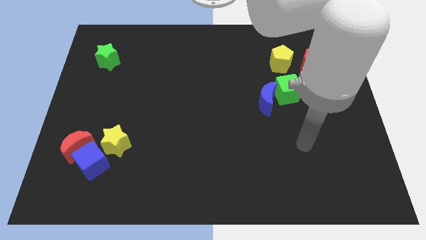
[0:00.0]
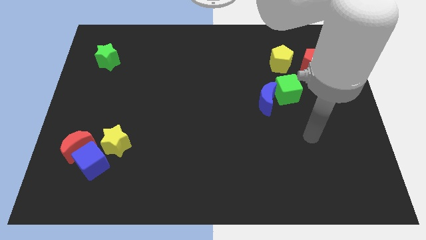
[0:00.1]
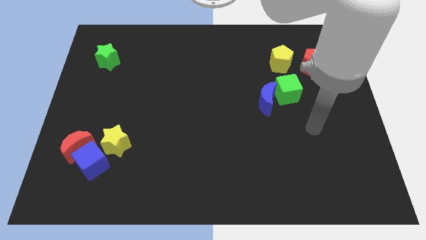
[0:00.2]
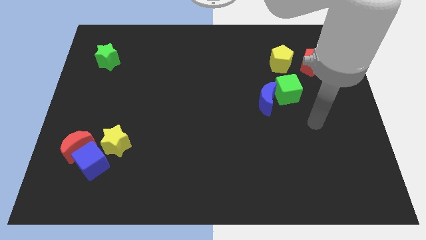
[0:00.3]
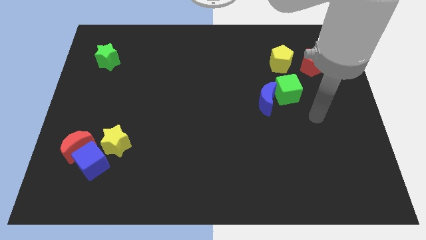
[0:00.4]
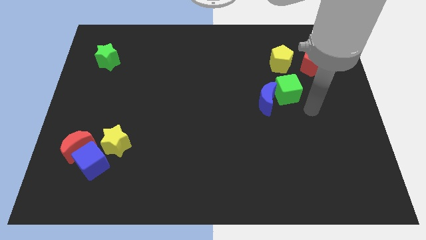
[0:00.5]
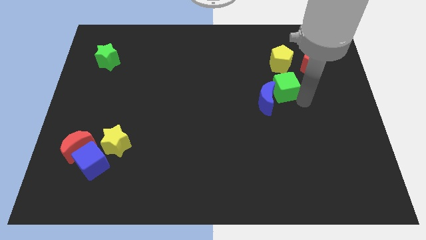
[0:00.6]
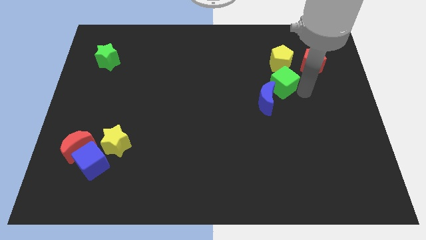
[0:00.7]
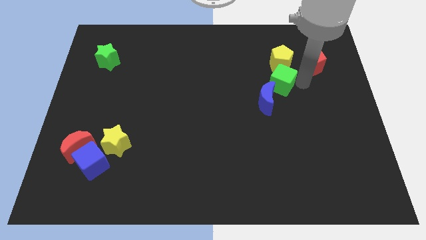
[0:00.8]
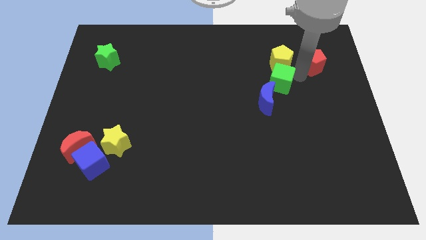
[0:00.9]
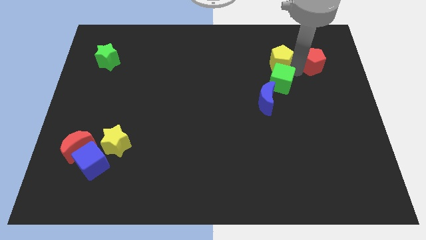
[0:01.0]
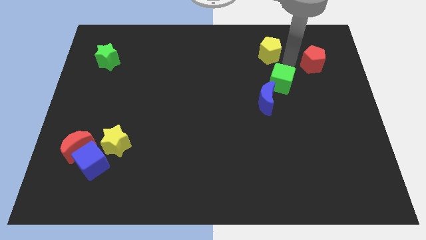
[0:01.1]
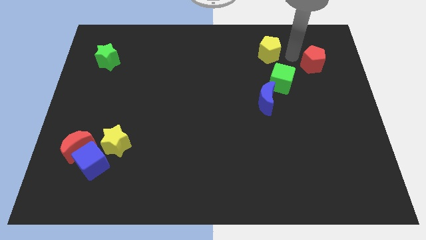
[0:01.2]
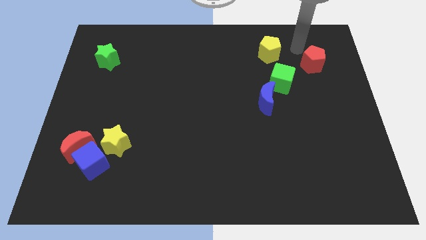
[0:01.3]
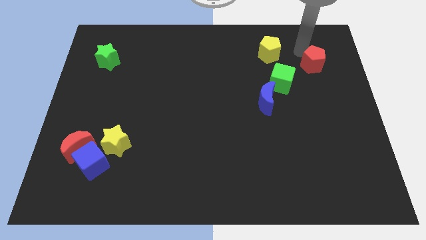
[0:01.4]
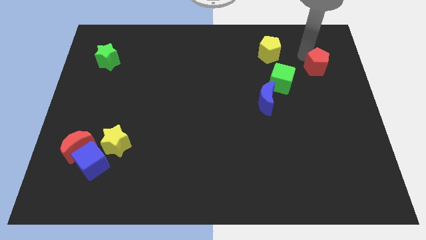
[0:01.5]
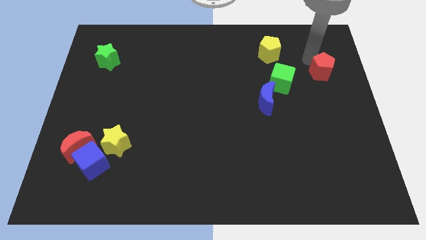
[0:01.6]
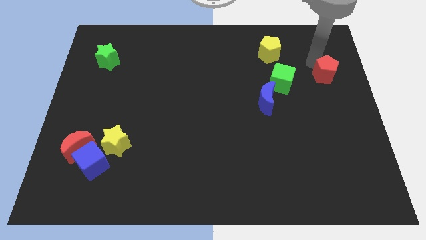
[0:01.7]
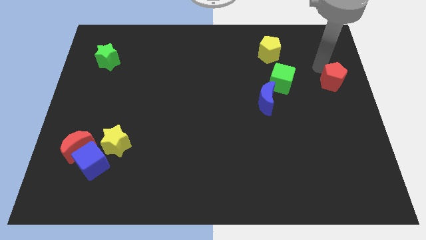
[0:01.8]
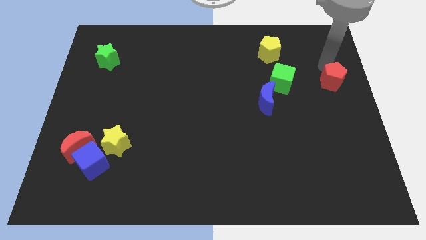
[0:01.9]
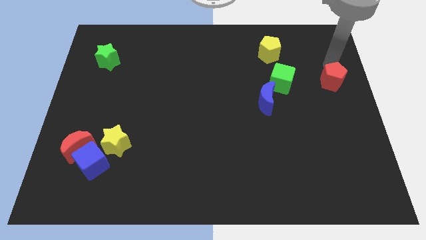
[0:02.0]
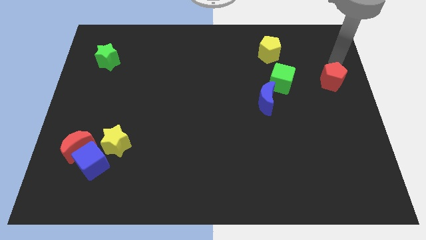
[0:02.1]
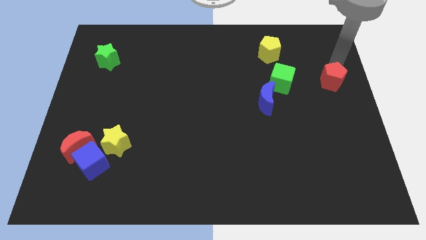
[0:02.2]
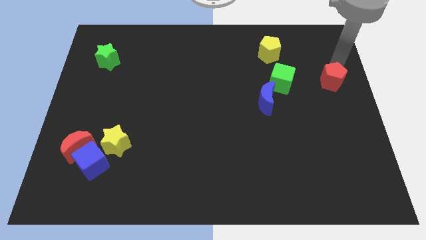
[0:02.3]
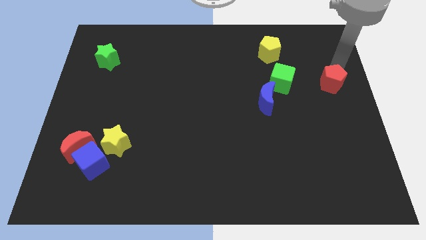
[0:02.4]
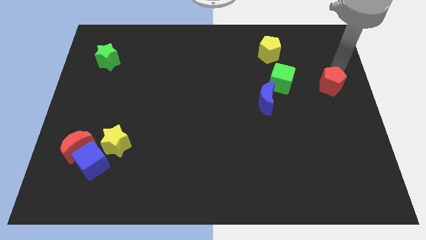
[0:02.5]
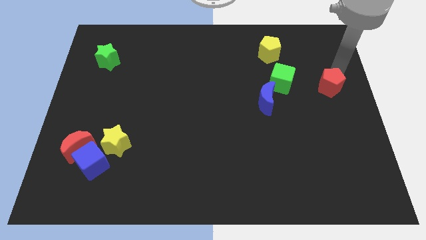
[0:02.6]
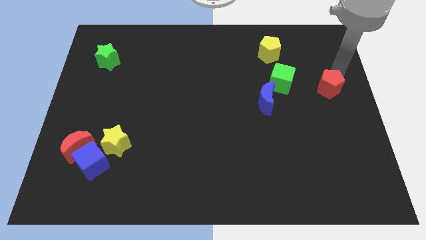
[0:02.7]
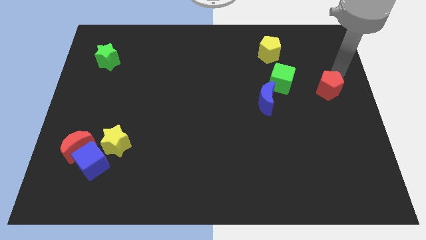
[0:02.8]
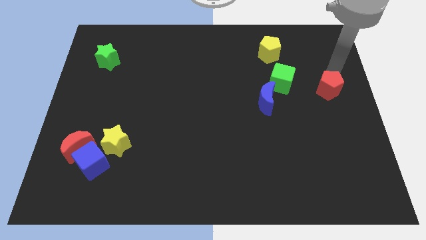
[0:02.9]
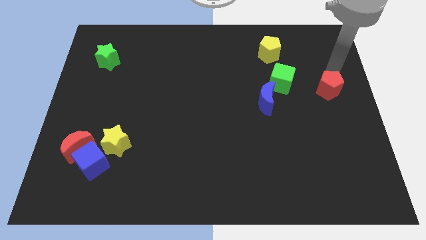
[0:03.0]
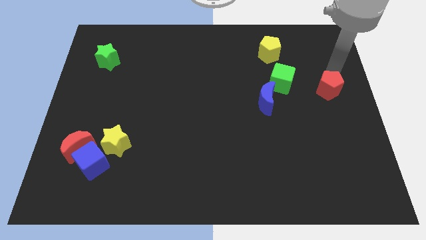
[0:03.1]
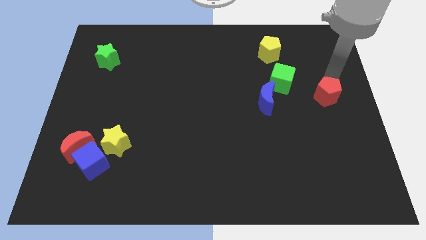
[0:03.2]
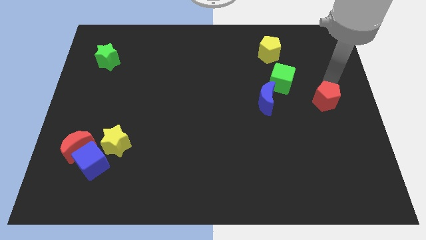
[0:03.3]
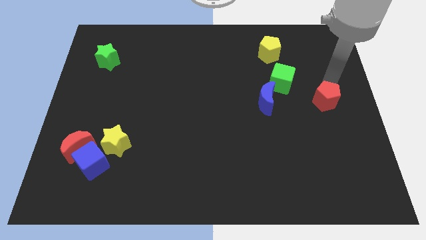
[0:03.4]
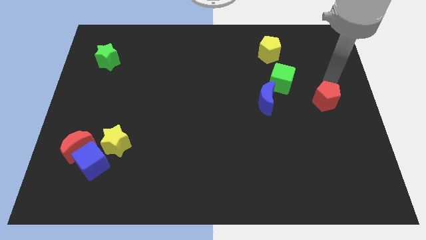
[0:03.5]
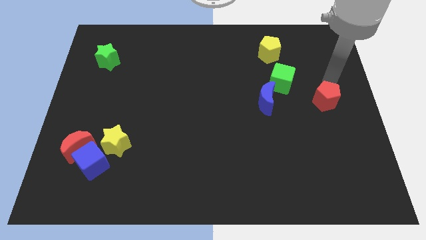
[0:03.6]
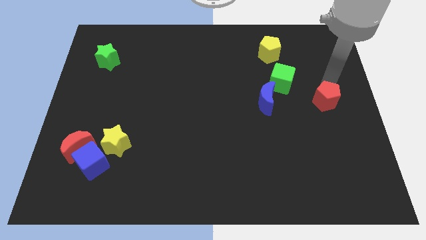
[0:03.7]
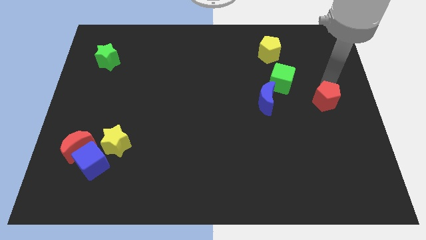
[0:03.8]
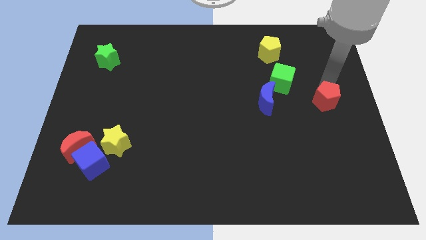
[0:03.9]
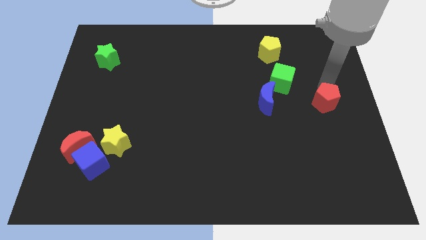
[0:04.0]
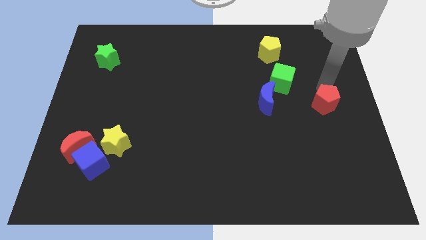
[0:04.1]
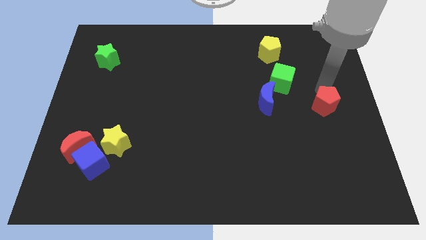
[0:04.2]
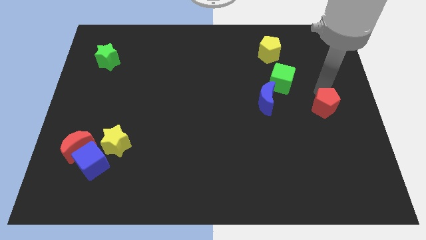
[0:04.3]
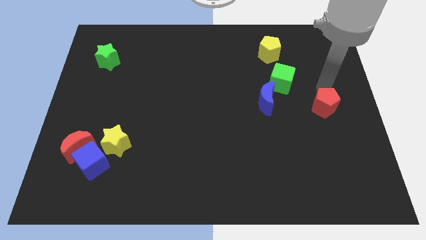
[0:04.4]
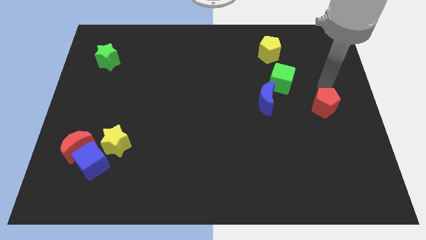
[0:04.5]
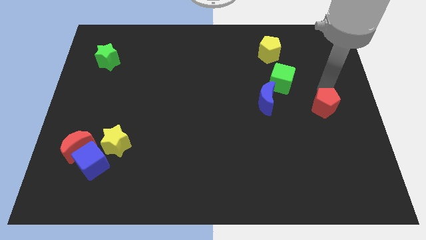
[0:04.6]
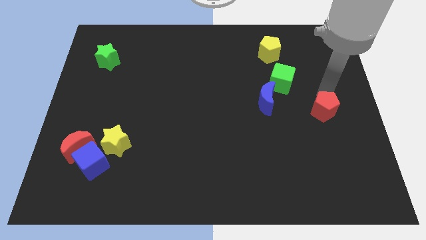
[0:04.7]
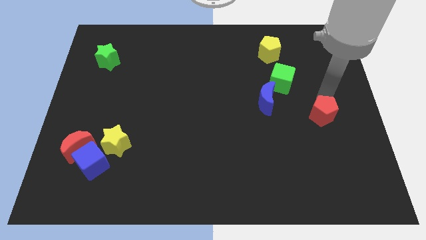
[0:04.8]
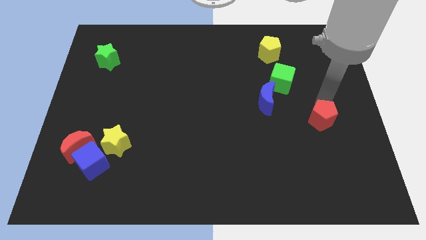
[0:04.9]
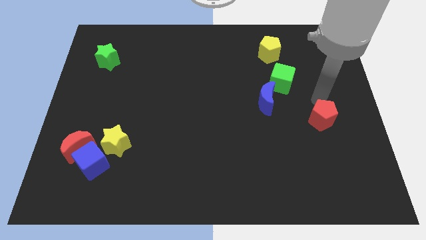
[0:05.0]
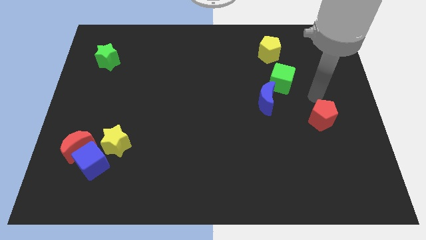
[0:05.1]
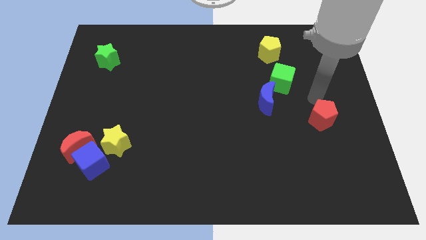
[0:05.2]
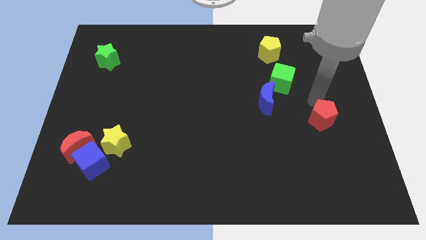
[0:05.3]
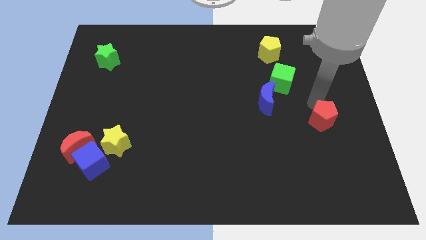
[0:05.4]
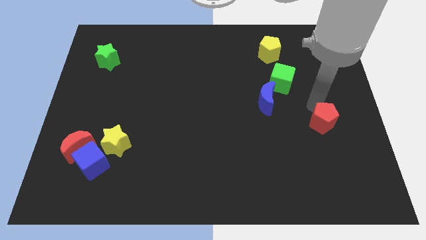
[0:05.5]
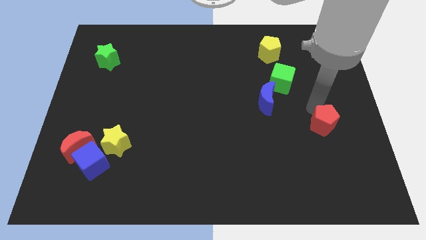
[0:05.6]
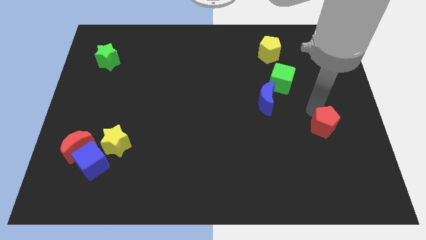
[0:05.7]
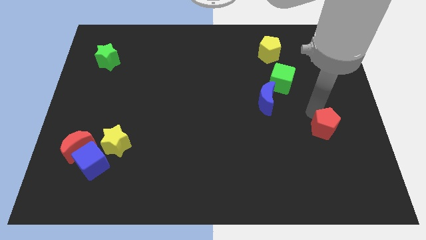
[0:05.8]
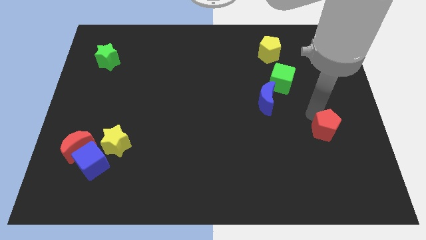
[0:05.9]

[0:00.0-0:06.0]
slide the red pentagon downwards

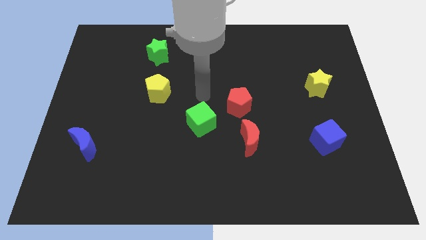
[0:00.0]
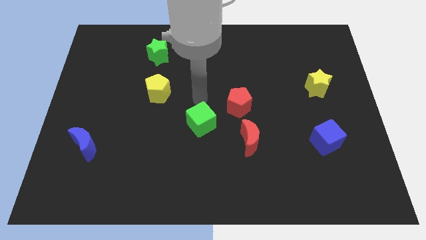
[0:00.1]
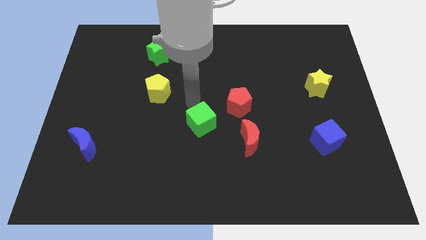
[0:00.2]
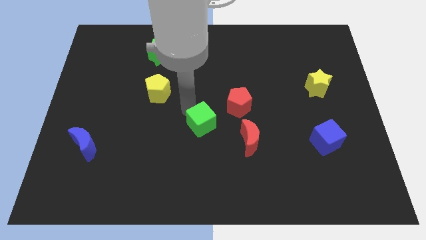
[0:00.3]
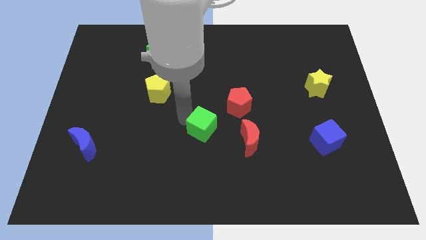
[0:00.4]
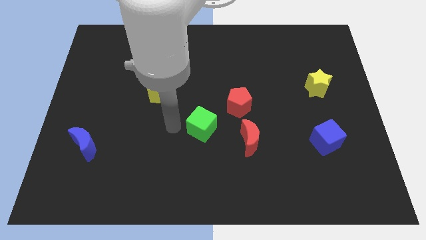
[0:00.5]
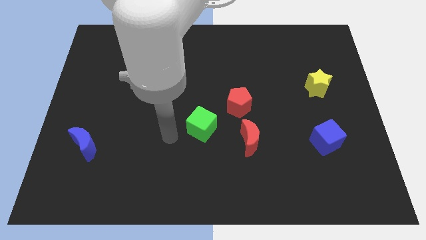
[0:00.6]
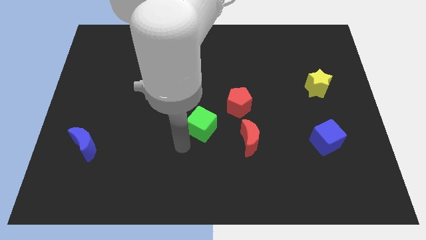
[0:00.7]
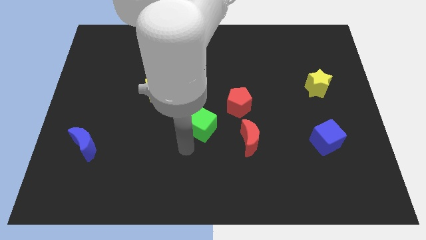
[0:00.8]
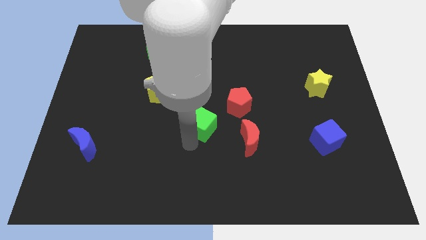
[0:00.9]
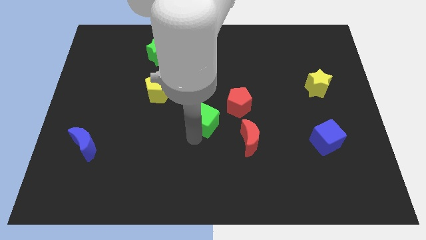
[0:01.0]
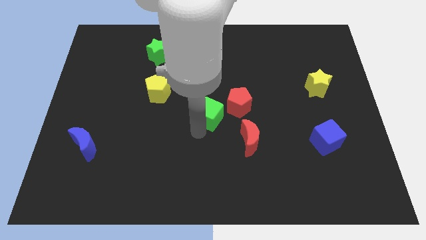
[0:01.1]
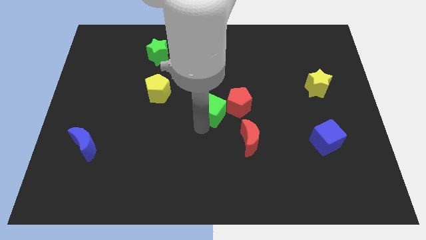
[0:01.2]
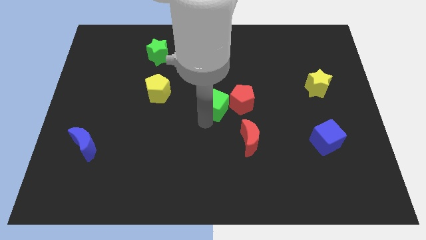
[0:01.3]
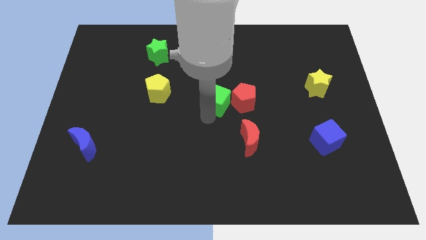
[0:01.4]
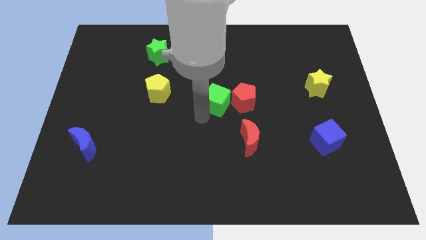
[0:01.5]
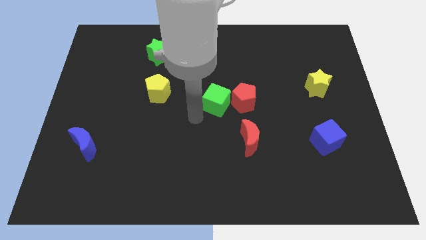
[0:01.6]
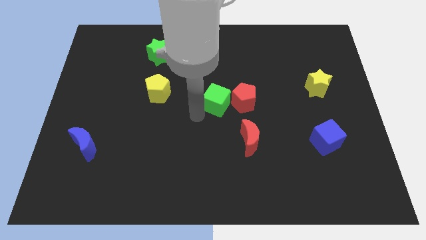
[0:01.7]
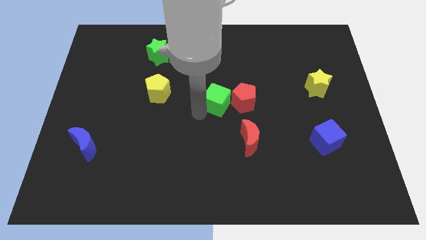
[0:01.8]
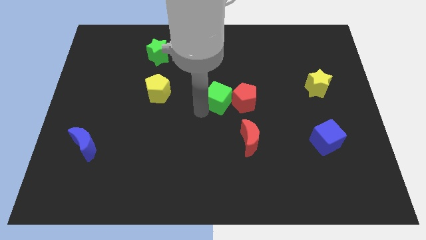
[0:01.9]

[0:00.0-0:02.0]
push the green cube diagonally upwards and to the right a little bit
